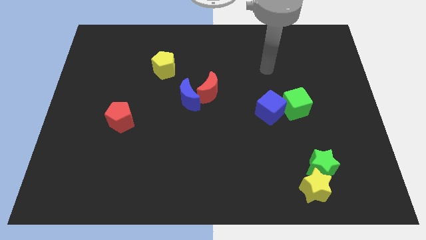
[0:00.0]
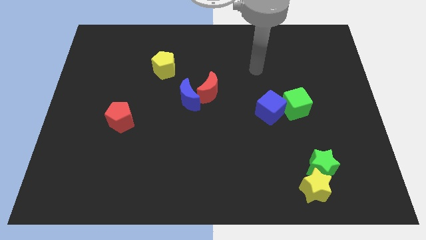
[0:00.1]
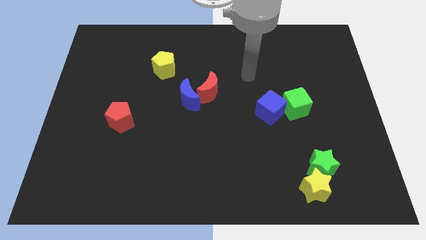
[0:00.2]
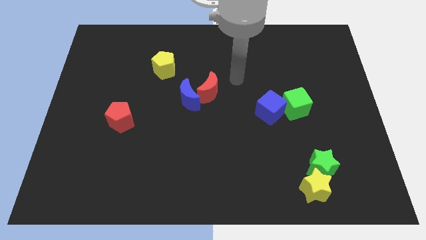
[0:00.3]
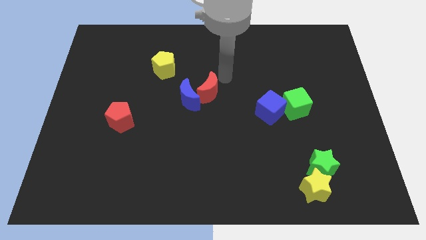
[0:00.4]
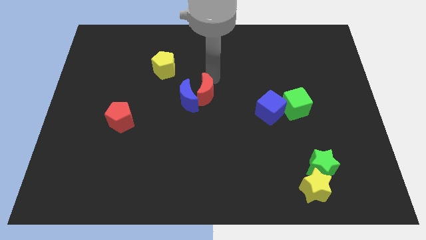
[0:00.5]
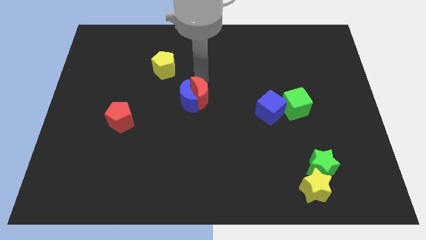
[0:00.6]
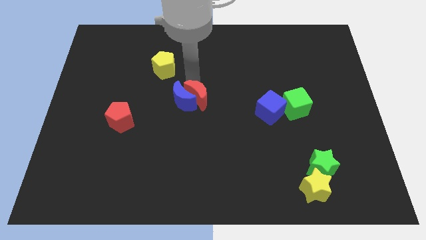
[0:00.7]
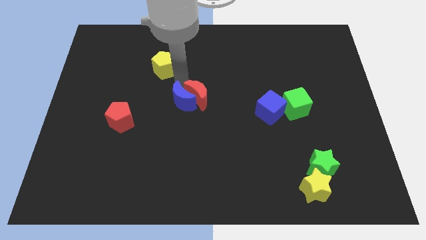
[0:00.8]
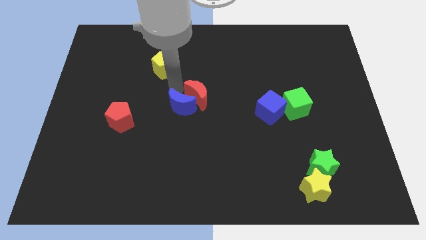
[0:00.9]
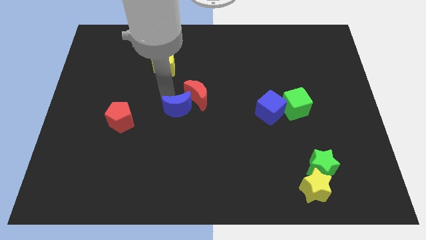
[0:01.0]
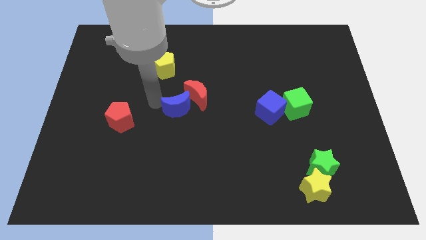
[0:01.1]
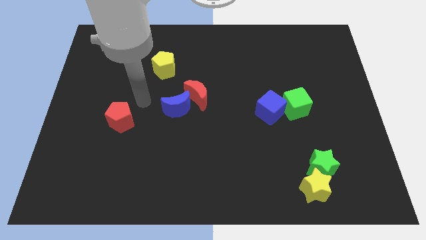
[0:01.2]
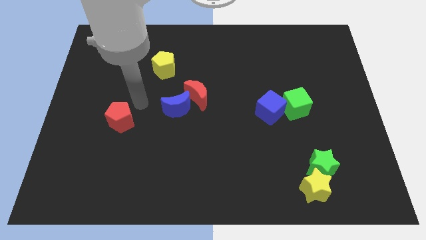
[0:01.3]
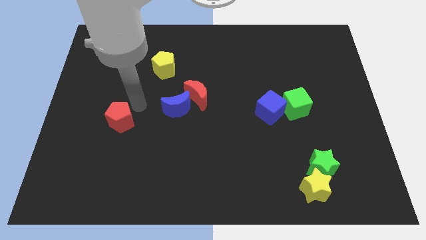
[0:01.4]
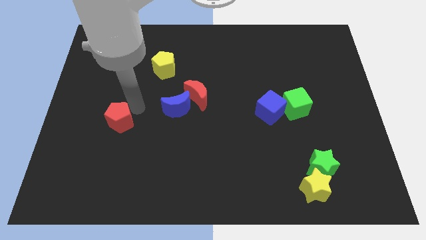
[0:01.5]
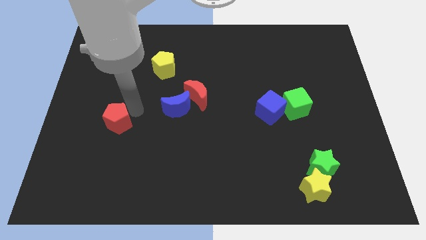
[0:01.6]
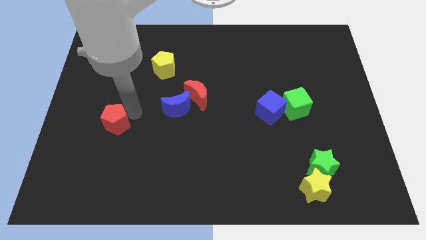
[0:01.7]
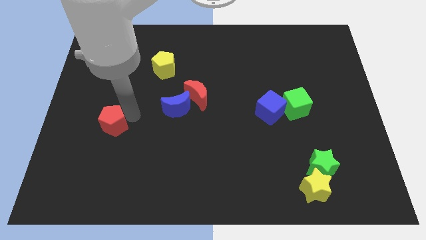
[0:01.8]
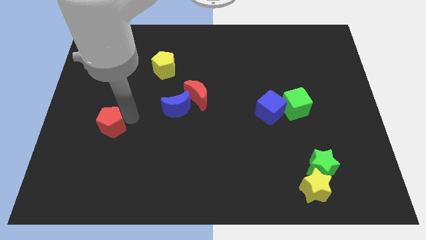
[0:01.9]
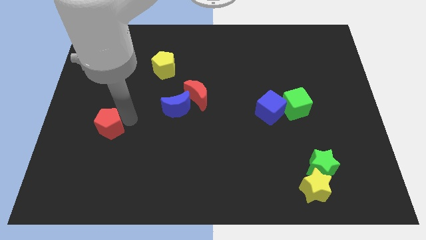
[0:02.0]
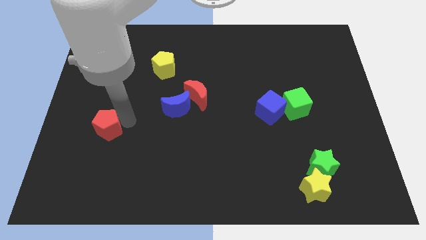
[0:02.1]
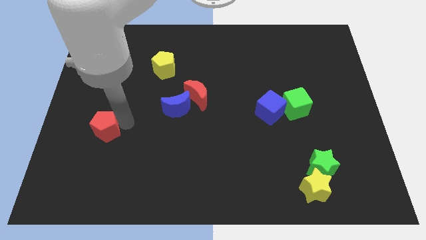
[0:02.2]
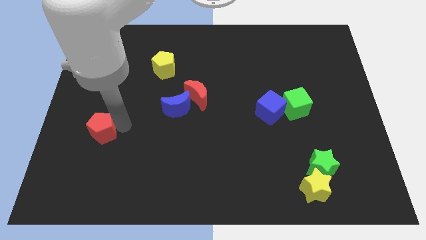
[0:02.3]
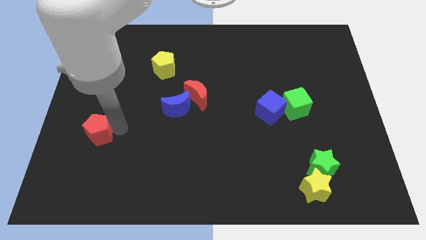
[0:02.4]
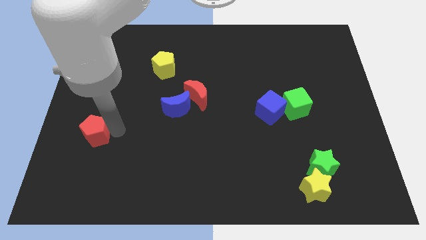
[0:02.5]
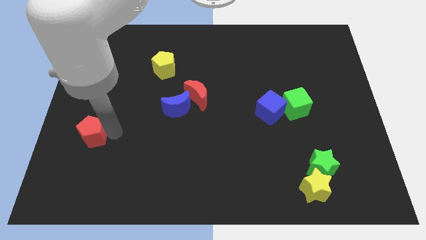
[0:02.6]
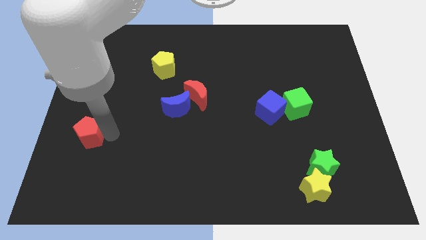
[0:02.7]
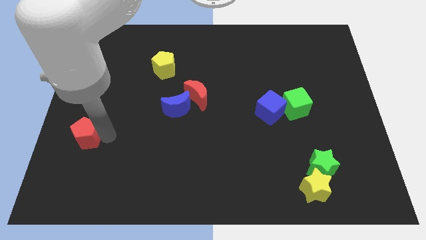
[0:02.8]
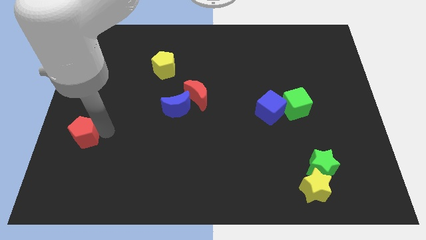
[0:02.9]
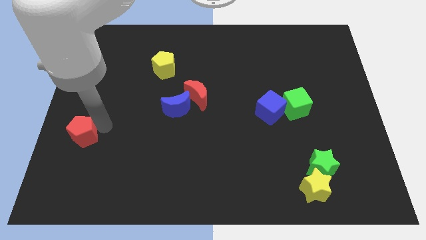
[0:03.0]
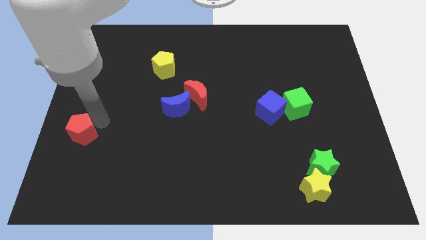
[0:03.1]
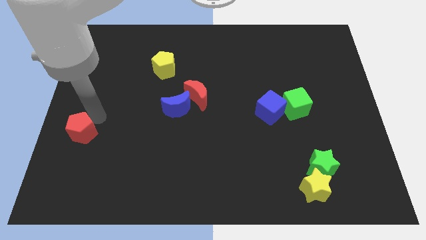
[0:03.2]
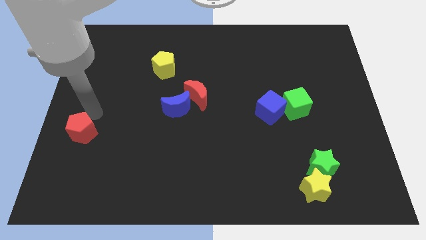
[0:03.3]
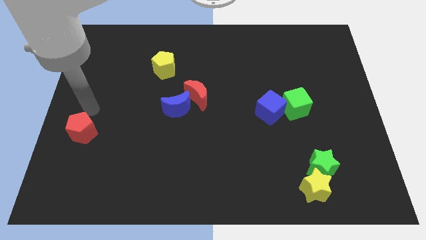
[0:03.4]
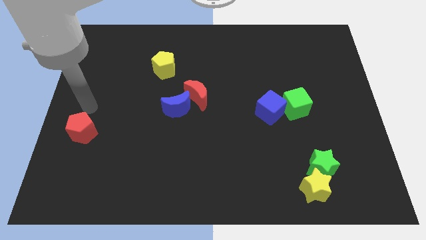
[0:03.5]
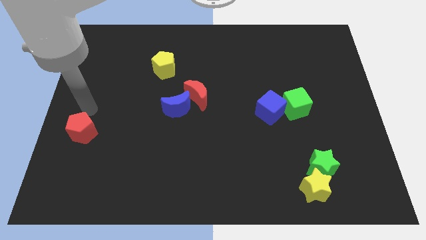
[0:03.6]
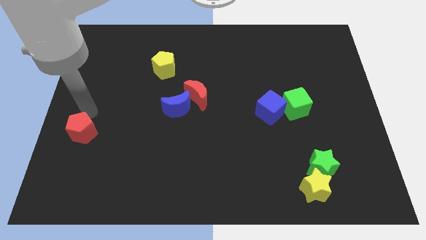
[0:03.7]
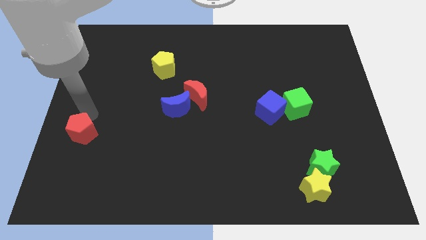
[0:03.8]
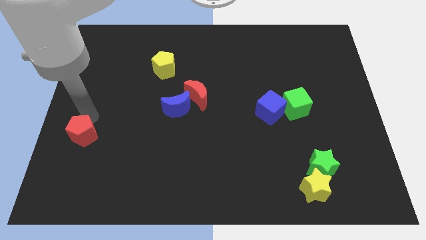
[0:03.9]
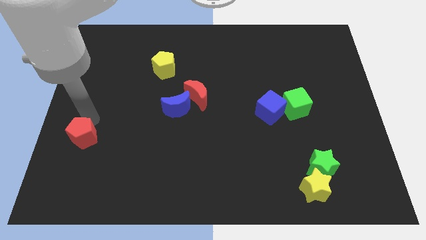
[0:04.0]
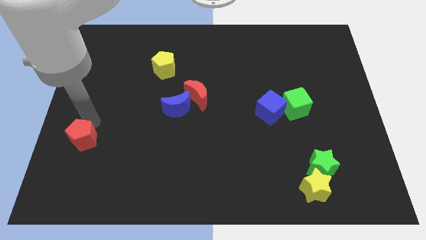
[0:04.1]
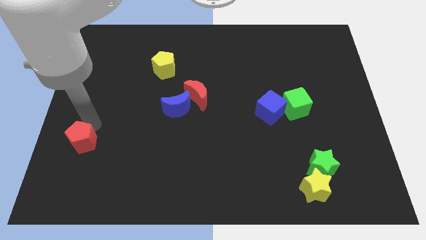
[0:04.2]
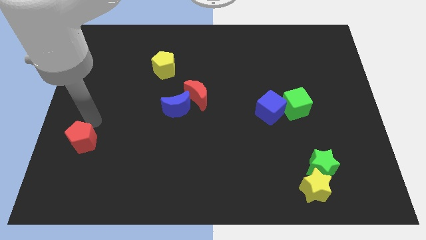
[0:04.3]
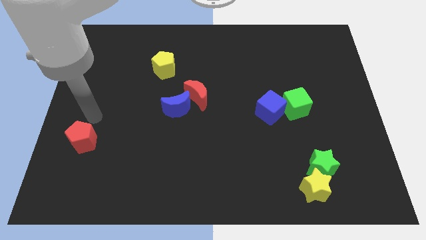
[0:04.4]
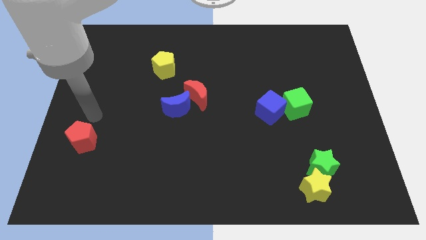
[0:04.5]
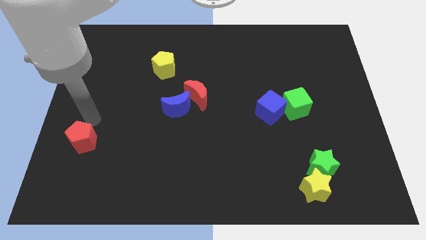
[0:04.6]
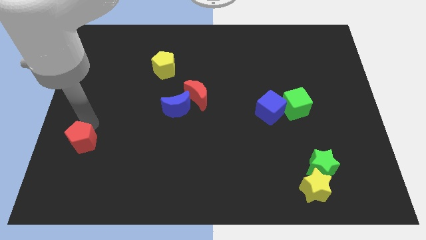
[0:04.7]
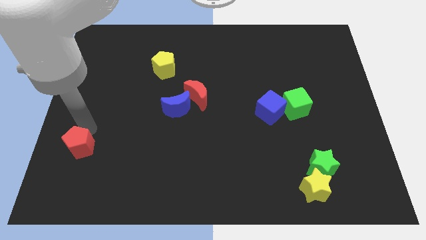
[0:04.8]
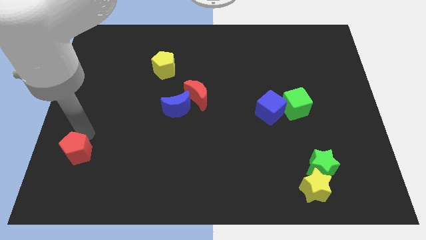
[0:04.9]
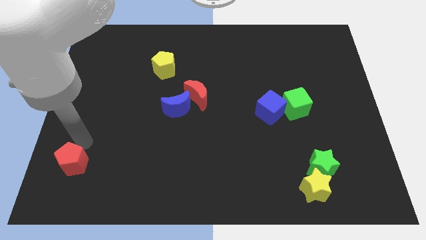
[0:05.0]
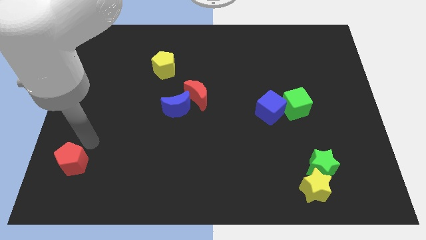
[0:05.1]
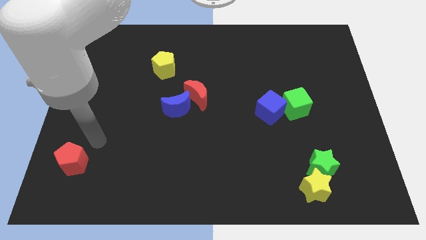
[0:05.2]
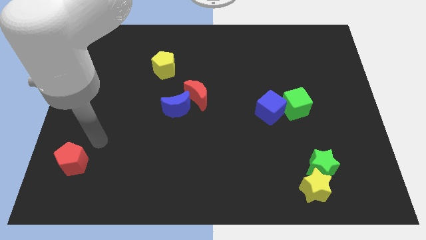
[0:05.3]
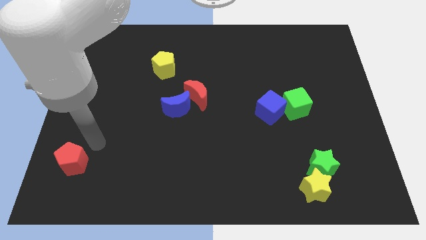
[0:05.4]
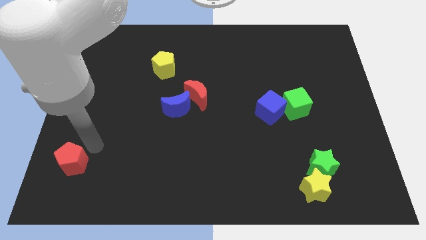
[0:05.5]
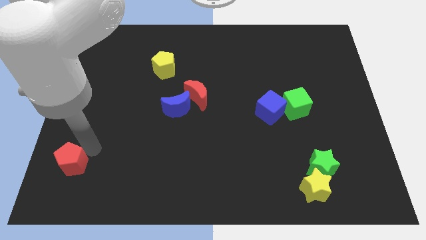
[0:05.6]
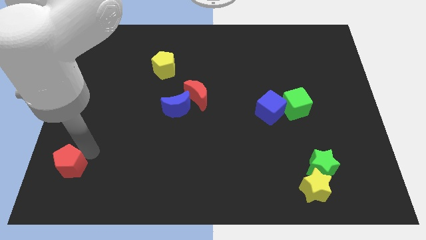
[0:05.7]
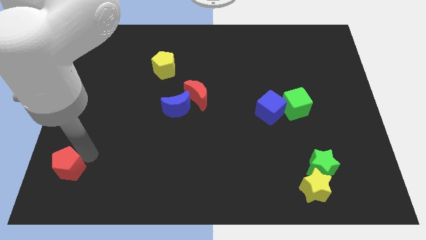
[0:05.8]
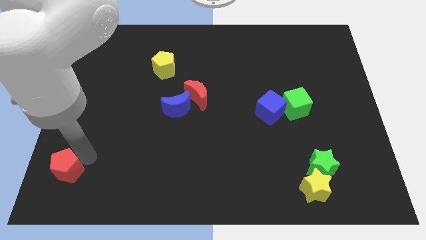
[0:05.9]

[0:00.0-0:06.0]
move the red pentagon to the bottom left of the board
